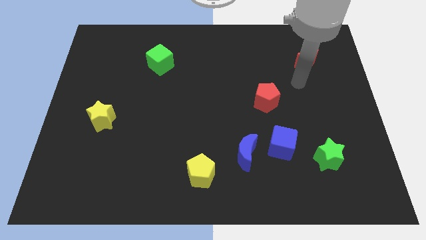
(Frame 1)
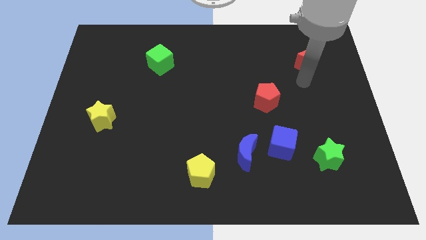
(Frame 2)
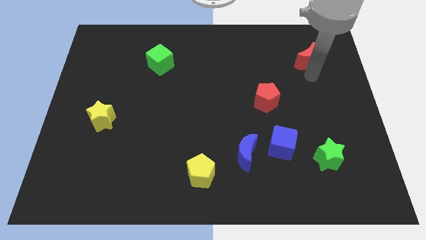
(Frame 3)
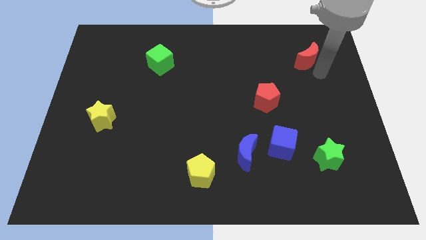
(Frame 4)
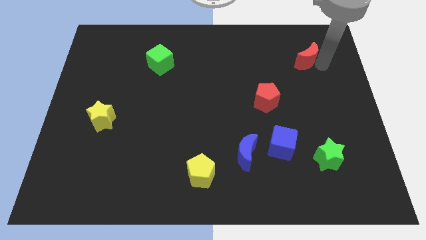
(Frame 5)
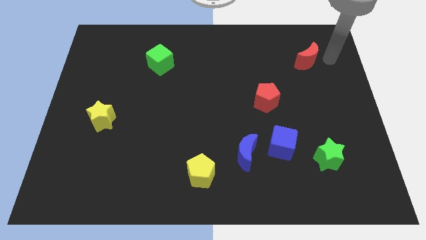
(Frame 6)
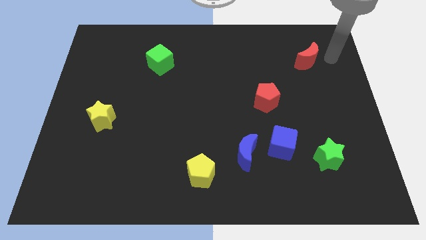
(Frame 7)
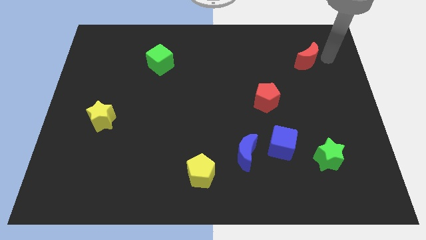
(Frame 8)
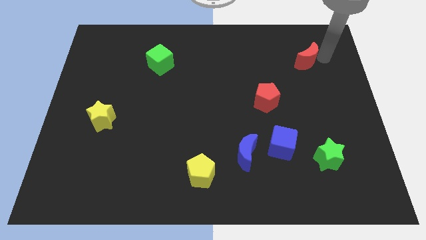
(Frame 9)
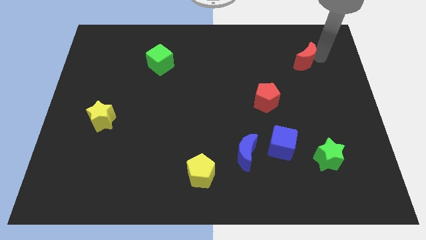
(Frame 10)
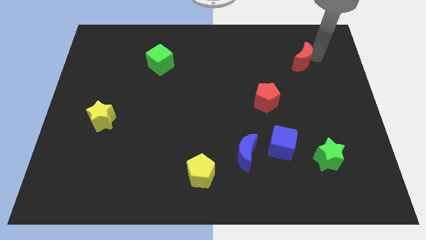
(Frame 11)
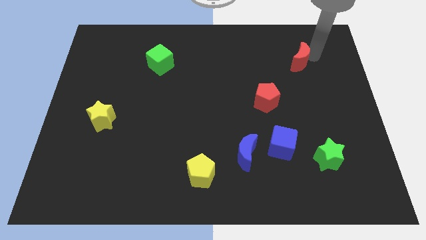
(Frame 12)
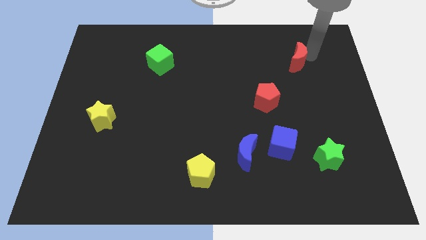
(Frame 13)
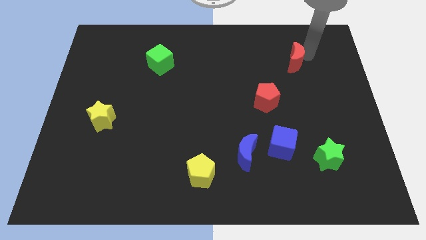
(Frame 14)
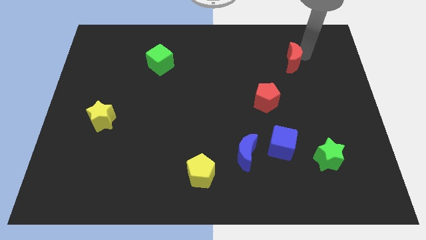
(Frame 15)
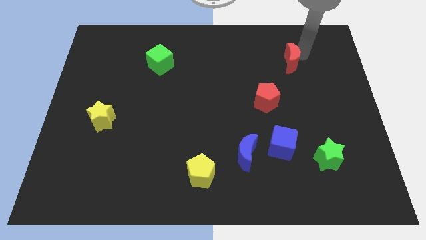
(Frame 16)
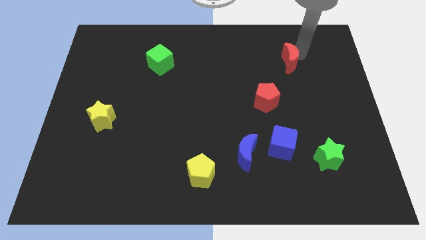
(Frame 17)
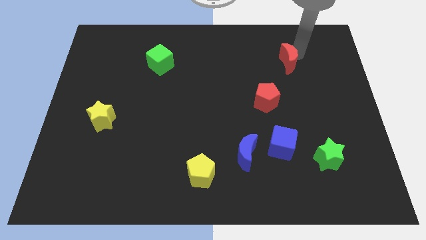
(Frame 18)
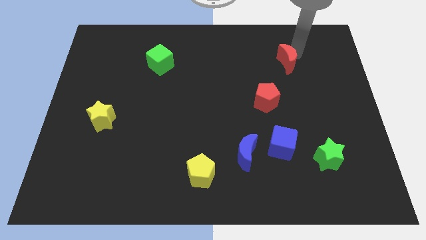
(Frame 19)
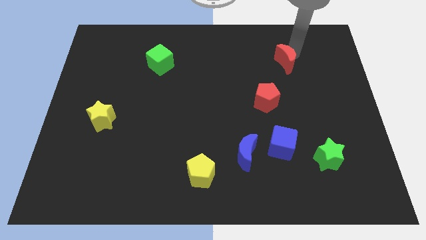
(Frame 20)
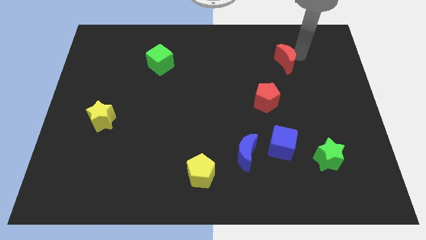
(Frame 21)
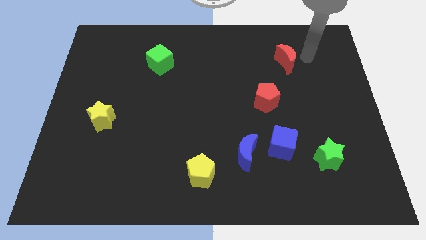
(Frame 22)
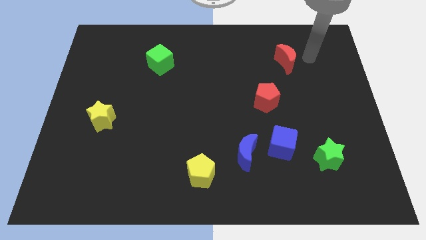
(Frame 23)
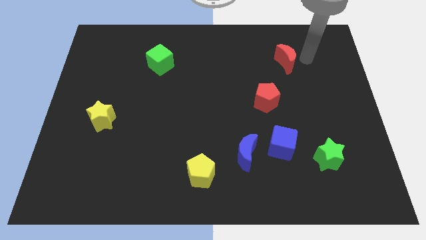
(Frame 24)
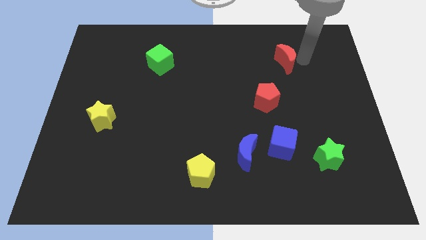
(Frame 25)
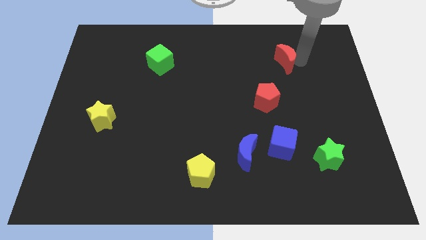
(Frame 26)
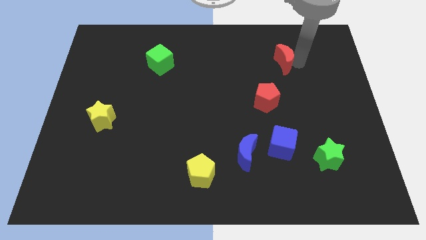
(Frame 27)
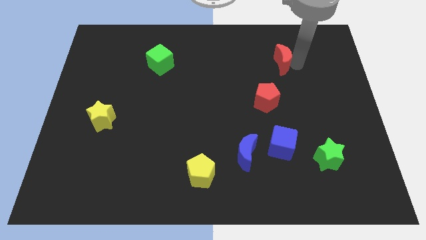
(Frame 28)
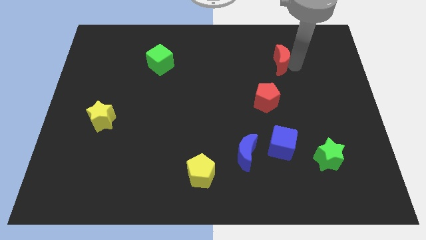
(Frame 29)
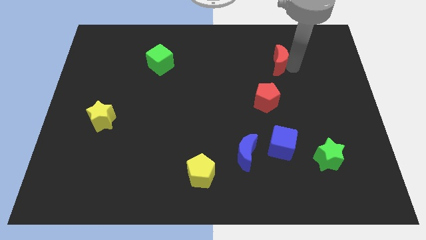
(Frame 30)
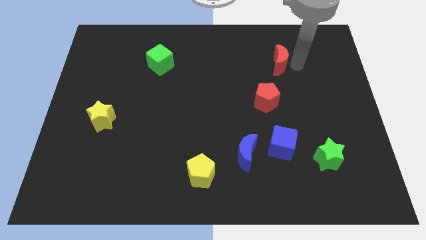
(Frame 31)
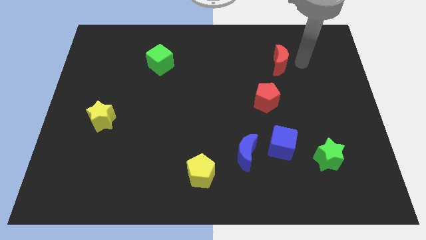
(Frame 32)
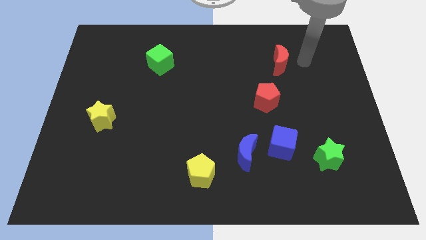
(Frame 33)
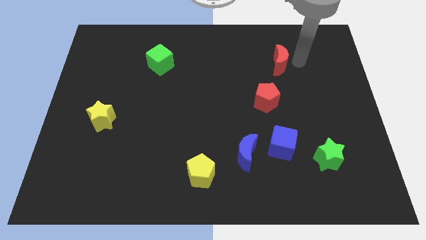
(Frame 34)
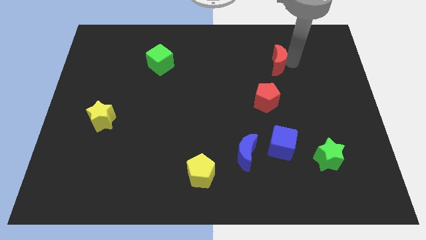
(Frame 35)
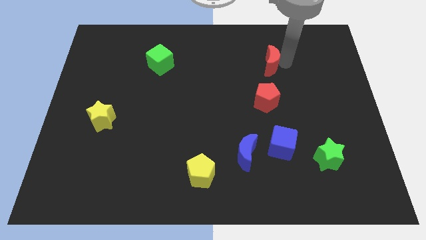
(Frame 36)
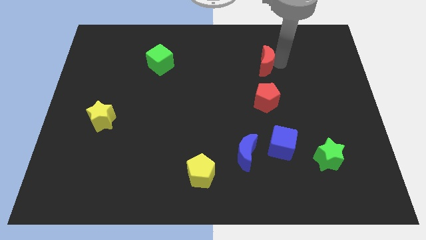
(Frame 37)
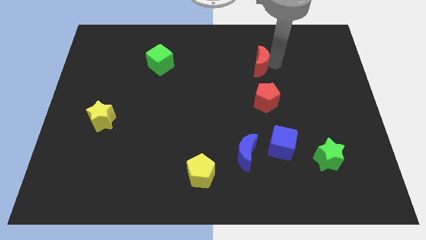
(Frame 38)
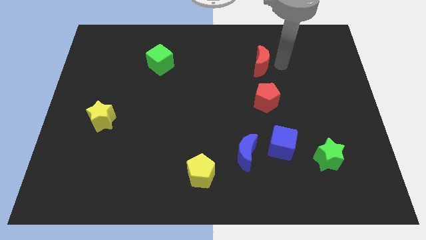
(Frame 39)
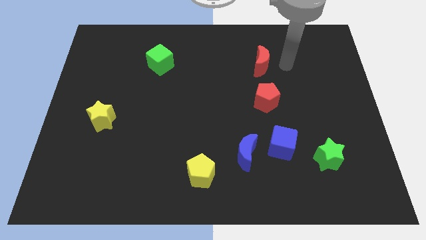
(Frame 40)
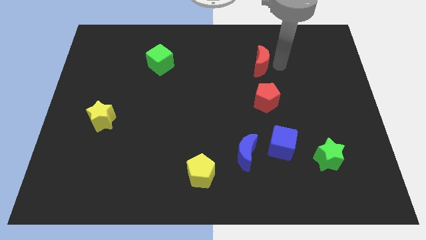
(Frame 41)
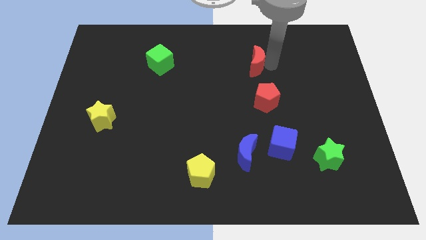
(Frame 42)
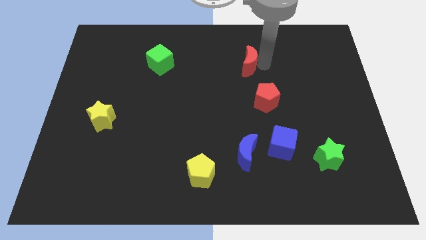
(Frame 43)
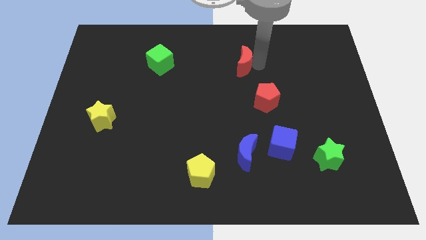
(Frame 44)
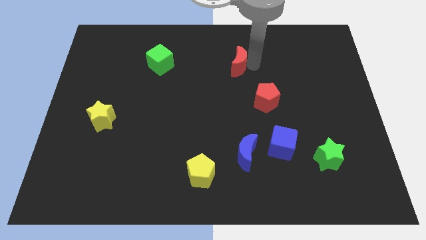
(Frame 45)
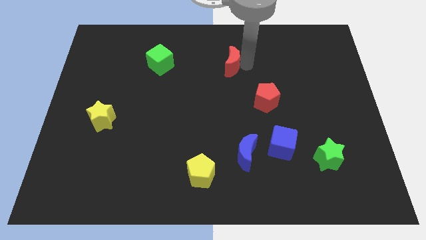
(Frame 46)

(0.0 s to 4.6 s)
push the red moon left

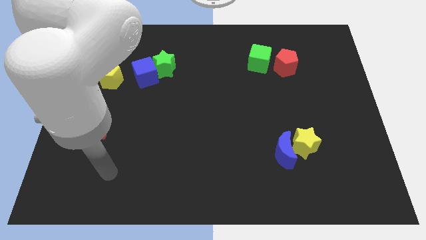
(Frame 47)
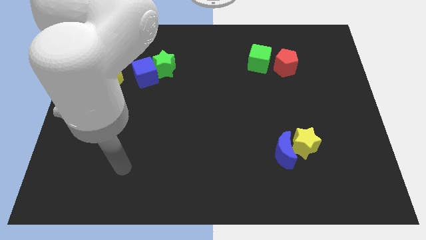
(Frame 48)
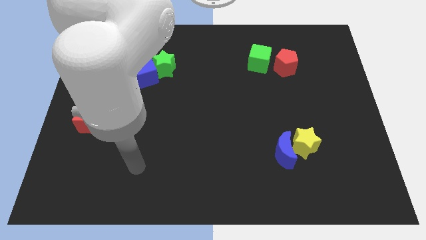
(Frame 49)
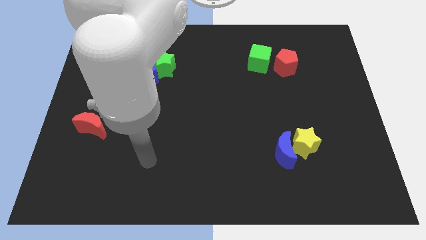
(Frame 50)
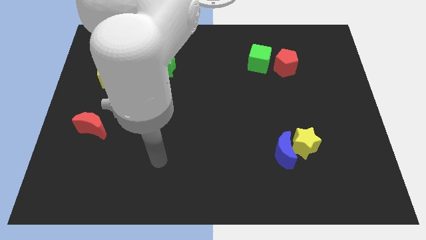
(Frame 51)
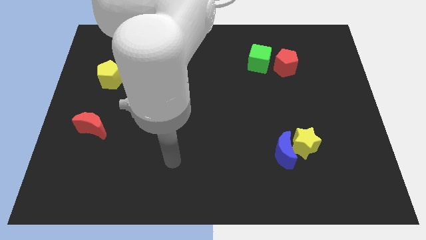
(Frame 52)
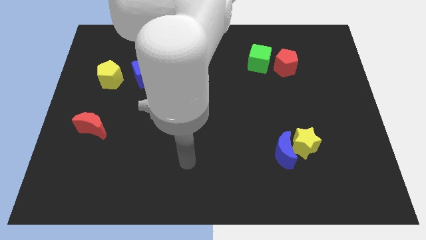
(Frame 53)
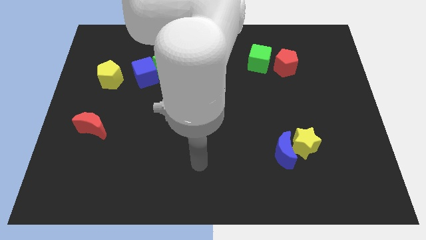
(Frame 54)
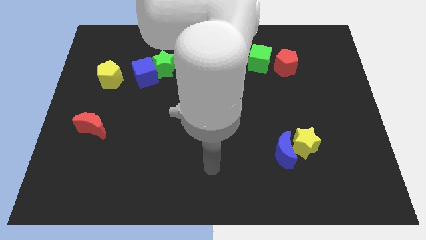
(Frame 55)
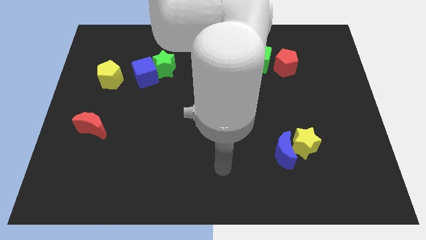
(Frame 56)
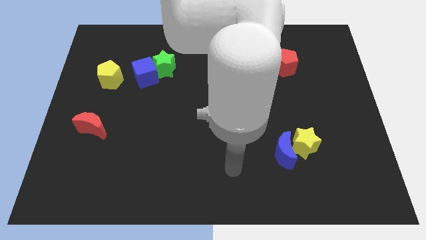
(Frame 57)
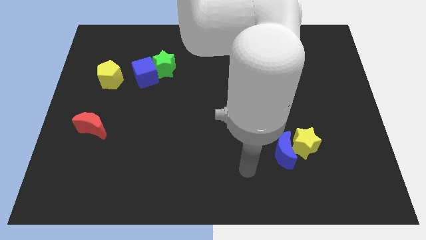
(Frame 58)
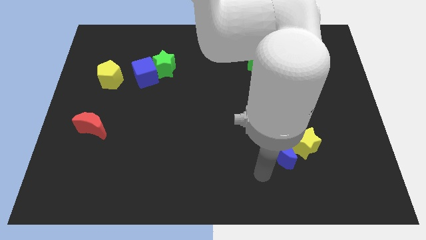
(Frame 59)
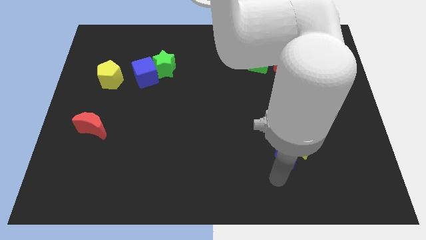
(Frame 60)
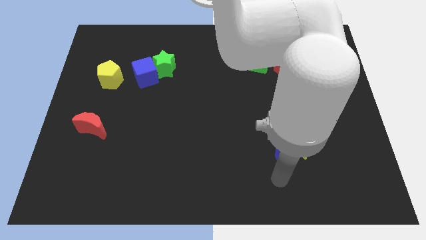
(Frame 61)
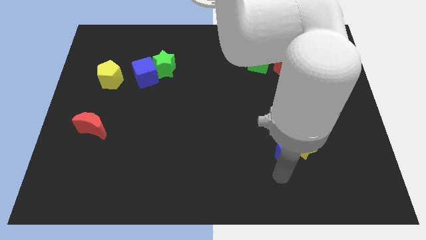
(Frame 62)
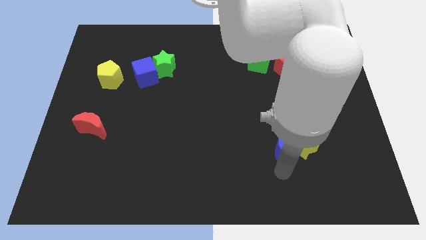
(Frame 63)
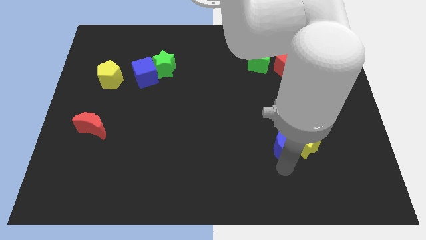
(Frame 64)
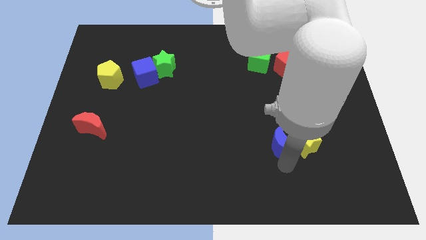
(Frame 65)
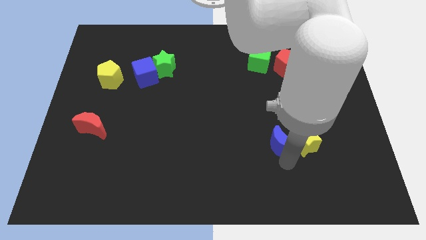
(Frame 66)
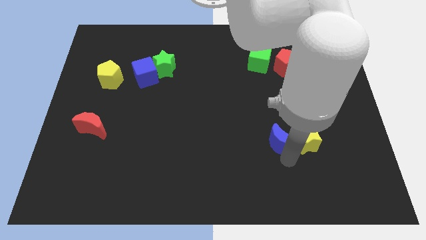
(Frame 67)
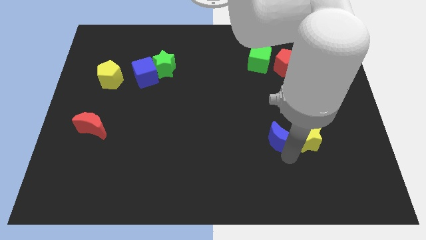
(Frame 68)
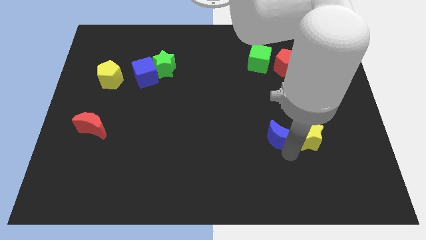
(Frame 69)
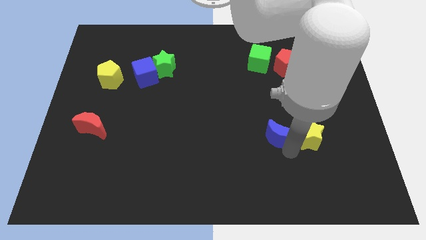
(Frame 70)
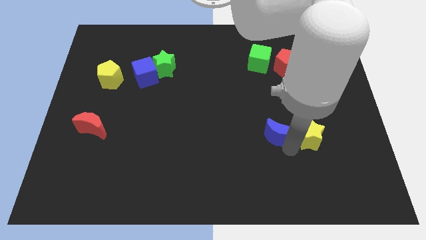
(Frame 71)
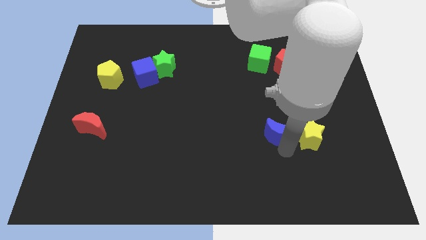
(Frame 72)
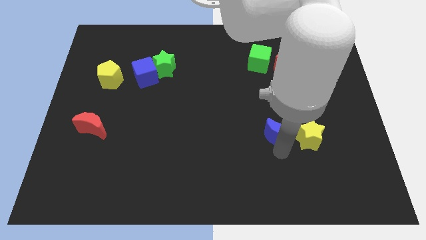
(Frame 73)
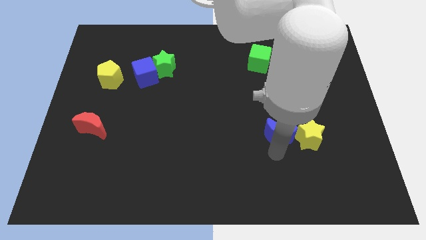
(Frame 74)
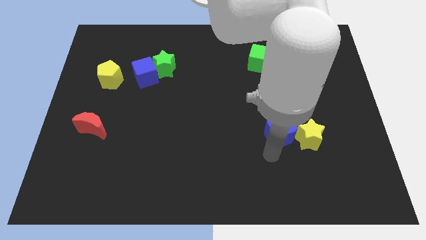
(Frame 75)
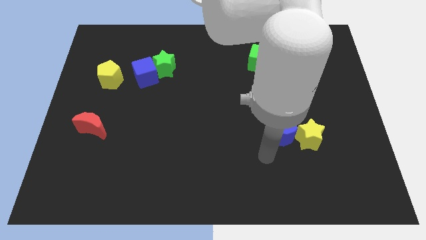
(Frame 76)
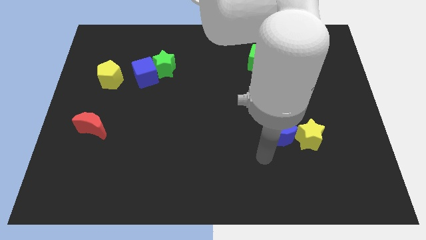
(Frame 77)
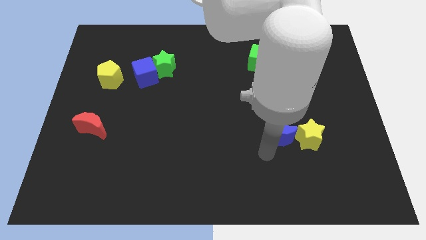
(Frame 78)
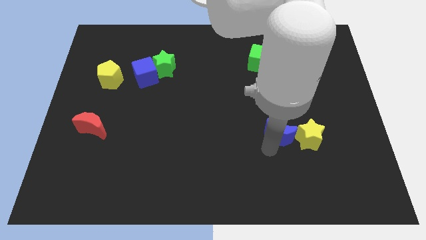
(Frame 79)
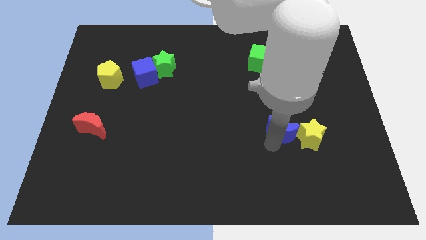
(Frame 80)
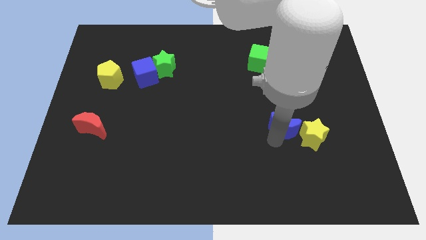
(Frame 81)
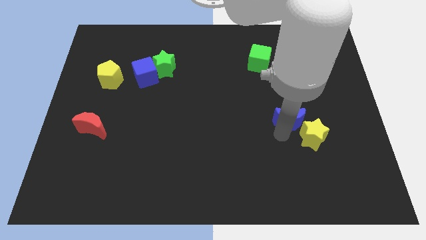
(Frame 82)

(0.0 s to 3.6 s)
move the blue moon a little bit upwards

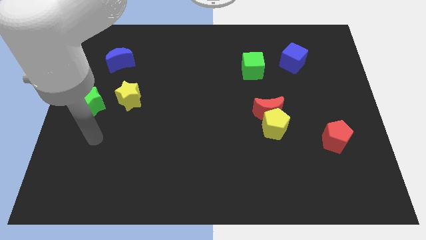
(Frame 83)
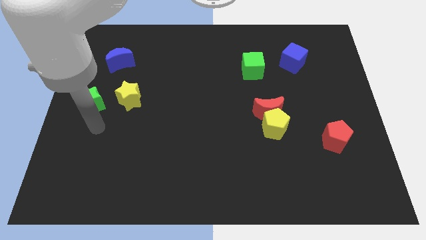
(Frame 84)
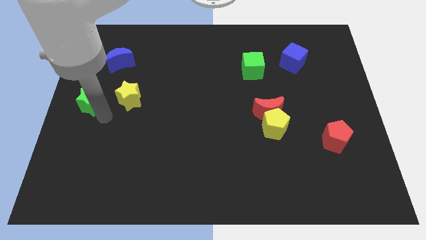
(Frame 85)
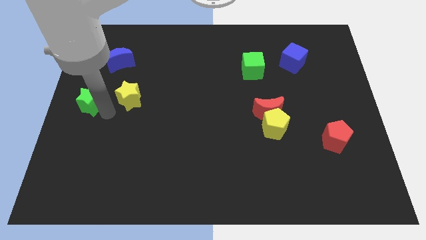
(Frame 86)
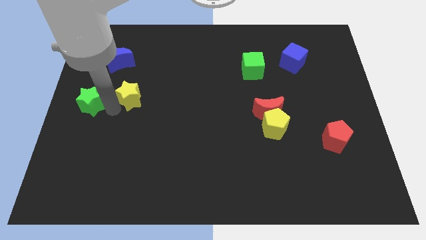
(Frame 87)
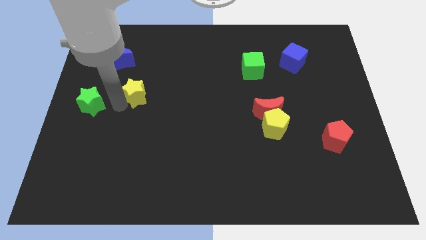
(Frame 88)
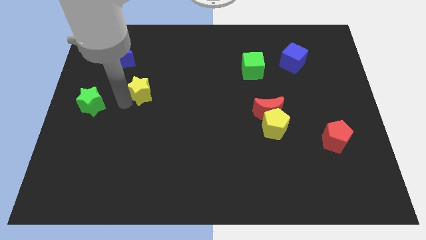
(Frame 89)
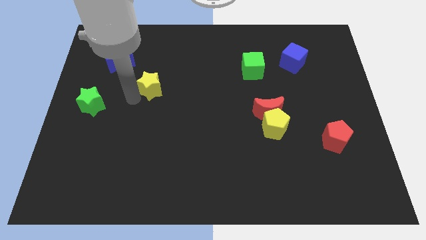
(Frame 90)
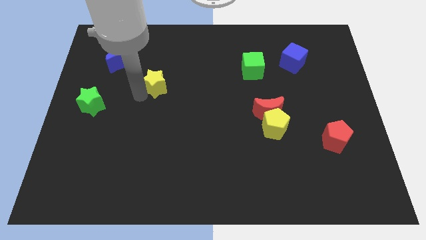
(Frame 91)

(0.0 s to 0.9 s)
push the yellow star up and to the right diagonally slightly
